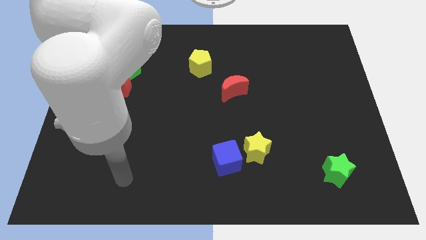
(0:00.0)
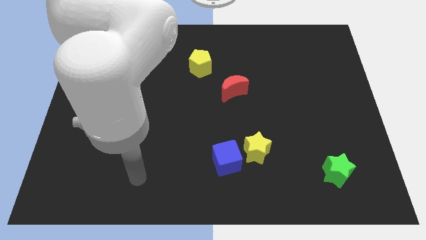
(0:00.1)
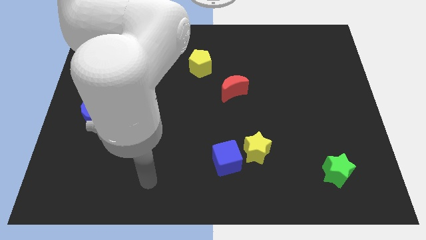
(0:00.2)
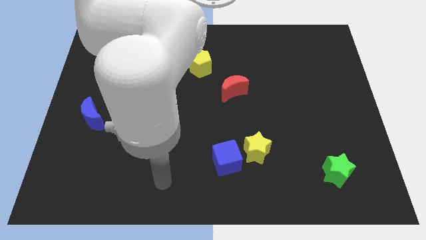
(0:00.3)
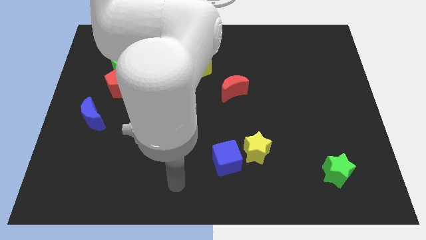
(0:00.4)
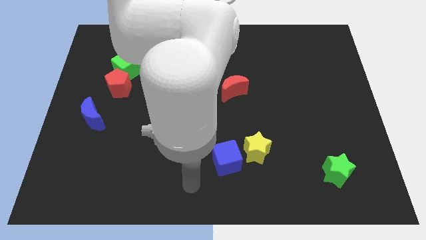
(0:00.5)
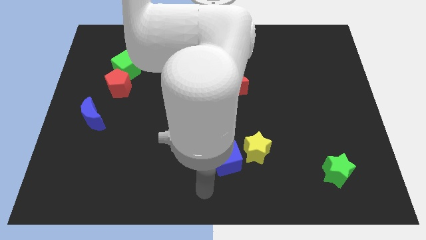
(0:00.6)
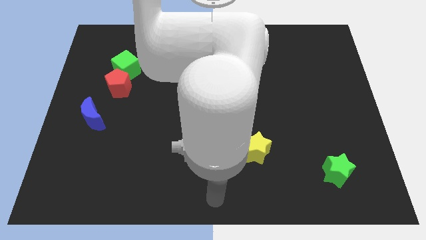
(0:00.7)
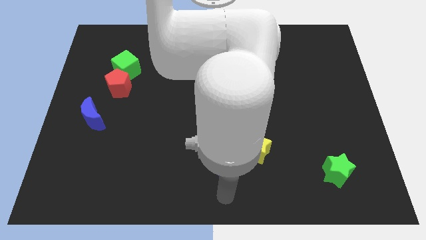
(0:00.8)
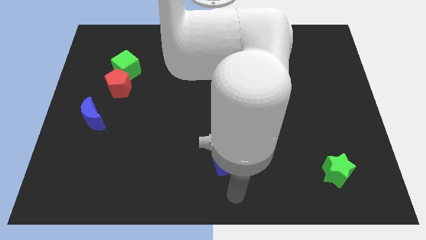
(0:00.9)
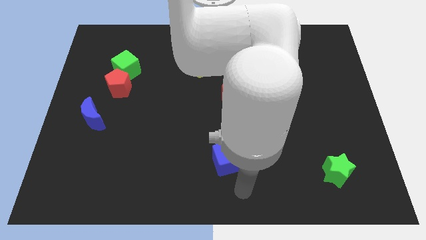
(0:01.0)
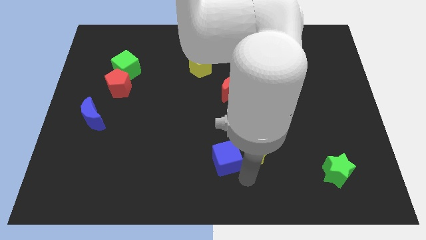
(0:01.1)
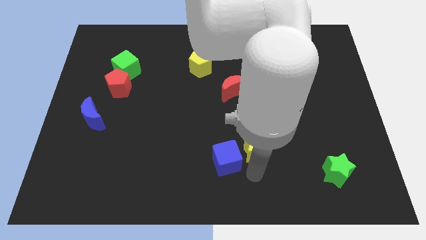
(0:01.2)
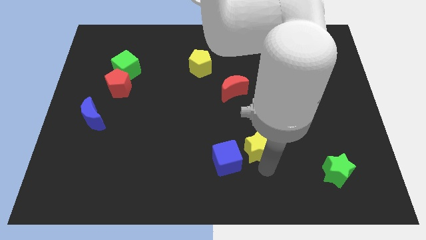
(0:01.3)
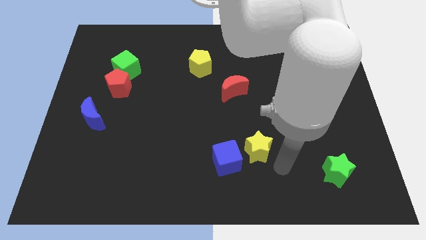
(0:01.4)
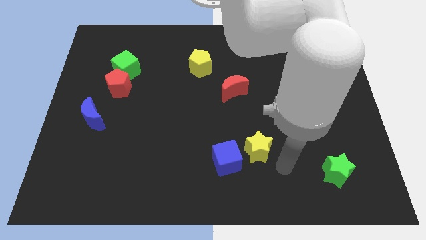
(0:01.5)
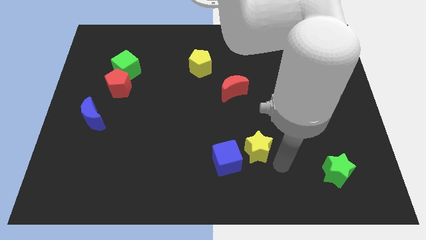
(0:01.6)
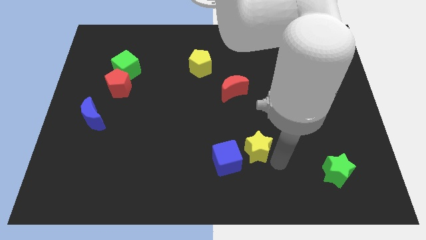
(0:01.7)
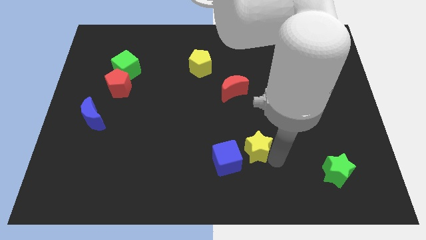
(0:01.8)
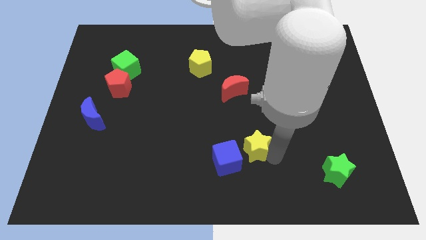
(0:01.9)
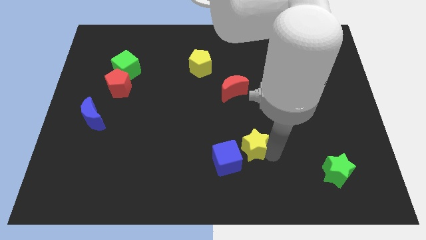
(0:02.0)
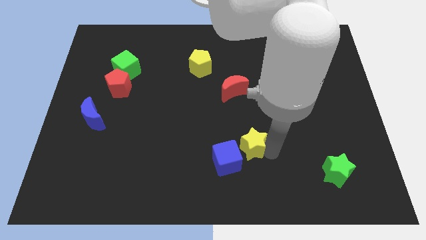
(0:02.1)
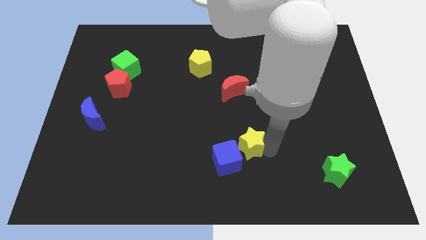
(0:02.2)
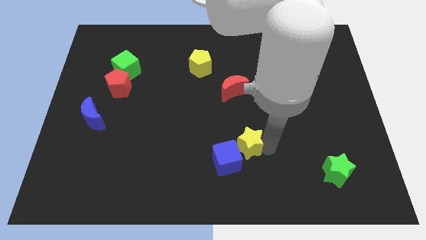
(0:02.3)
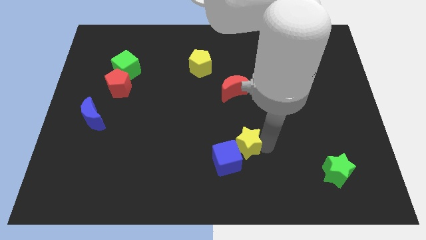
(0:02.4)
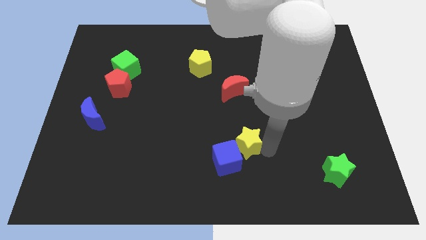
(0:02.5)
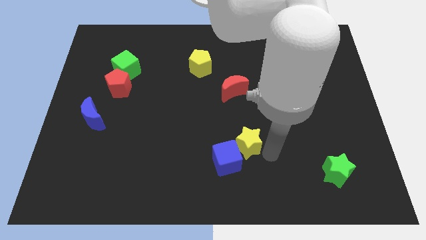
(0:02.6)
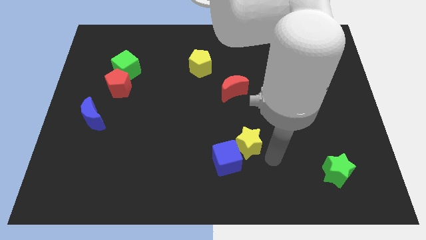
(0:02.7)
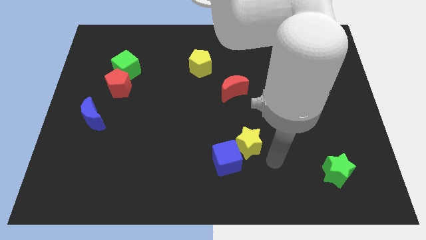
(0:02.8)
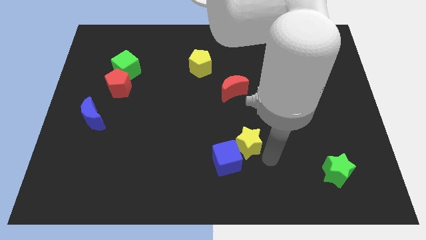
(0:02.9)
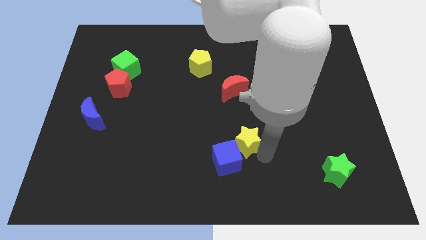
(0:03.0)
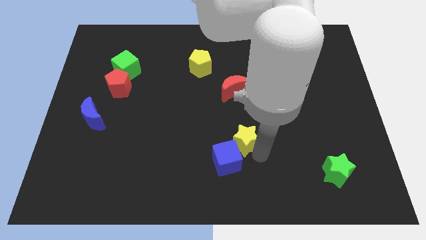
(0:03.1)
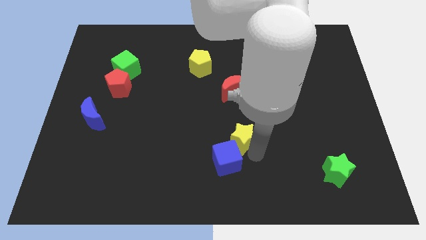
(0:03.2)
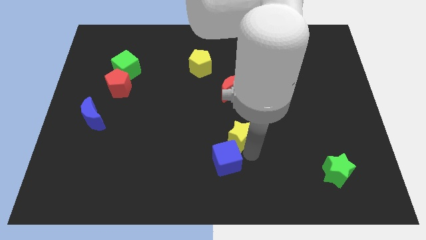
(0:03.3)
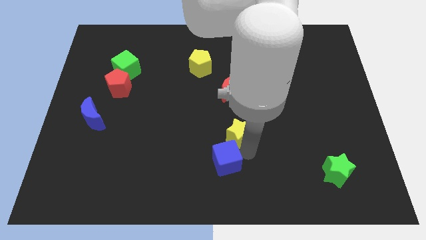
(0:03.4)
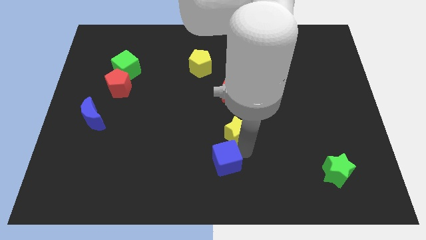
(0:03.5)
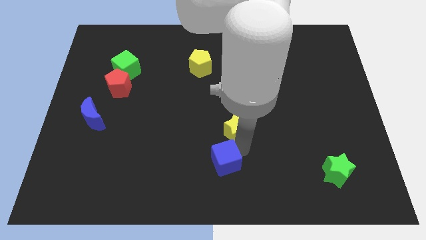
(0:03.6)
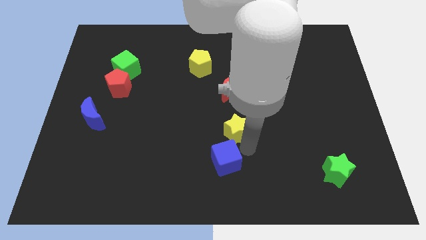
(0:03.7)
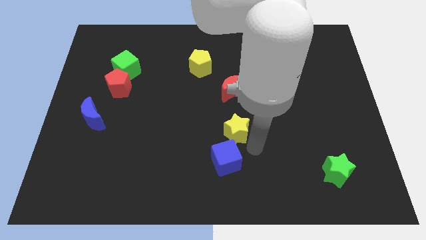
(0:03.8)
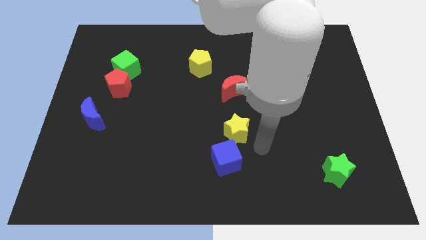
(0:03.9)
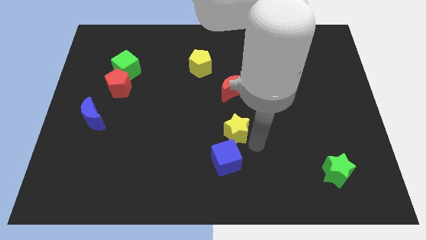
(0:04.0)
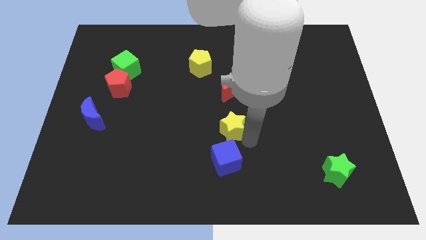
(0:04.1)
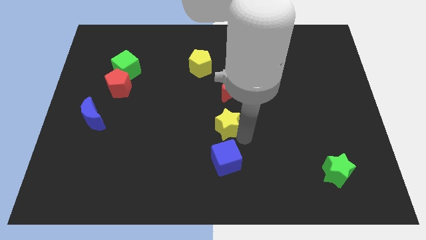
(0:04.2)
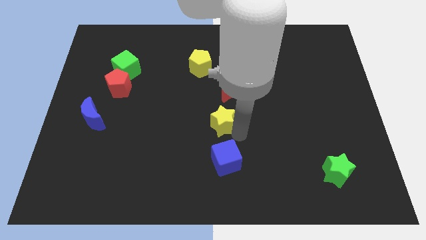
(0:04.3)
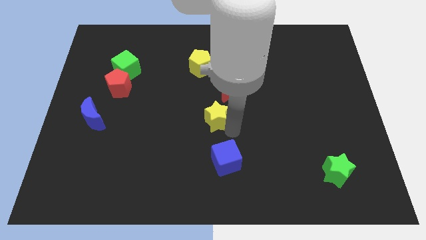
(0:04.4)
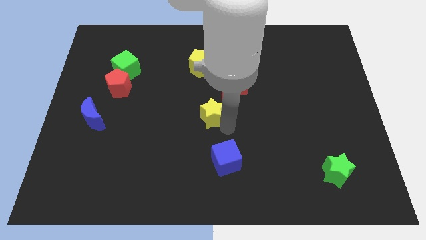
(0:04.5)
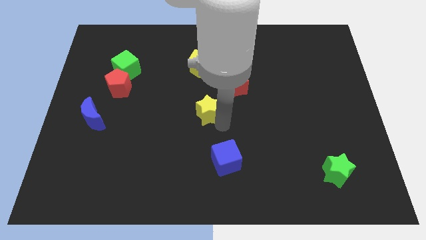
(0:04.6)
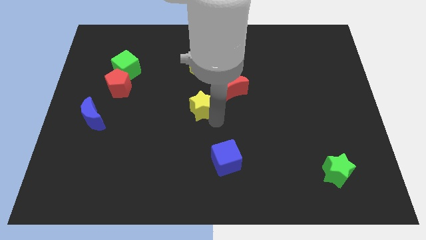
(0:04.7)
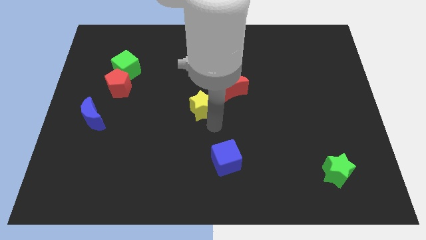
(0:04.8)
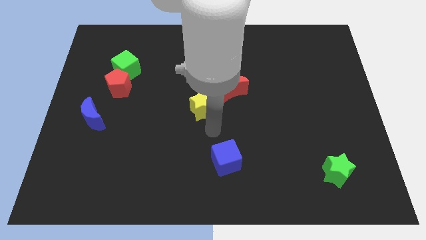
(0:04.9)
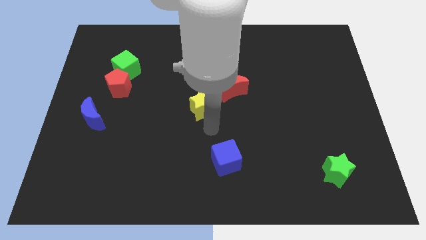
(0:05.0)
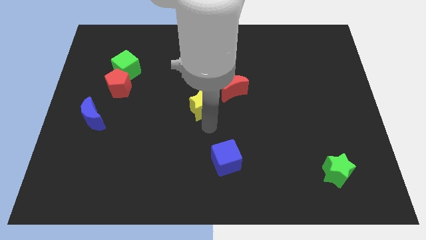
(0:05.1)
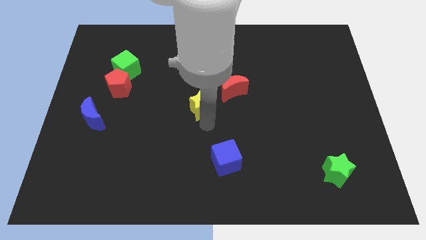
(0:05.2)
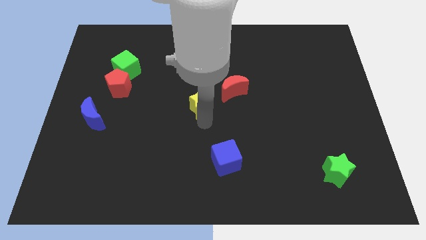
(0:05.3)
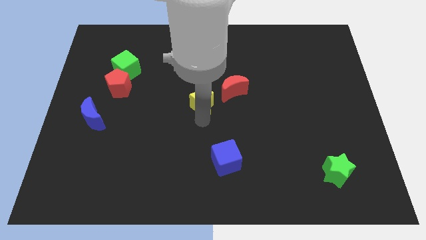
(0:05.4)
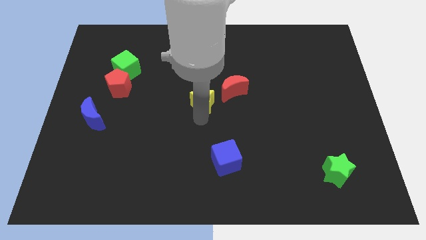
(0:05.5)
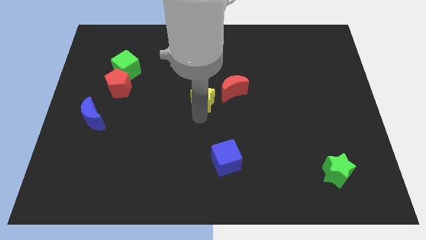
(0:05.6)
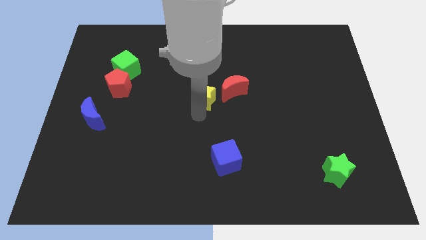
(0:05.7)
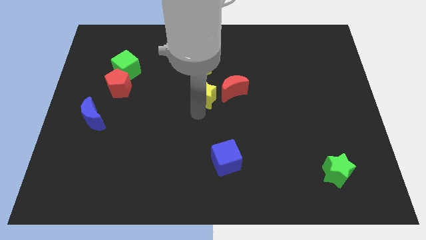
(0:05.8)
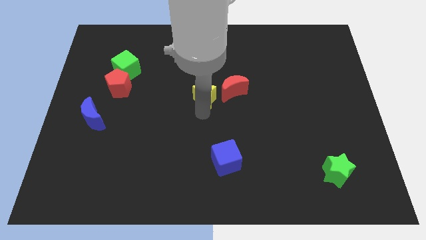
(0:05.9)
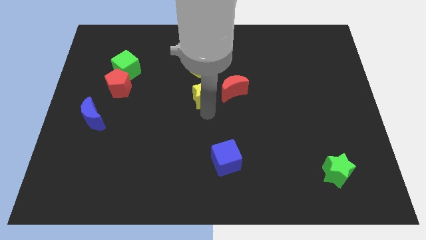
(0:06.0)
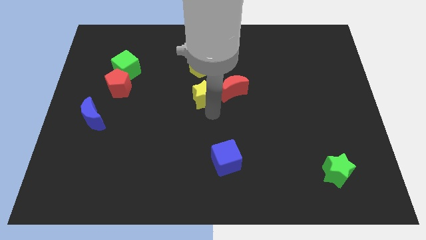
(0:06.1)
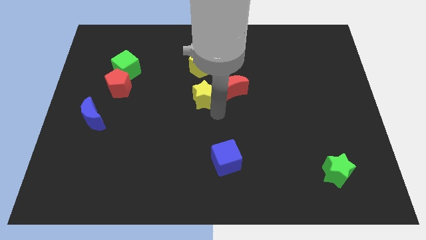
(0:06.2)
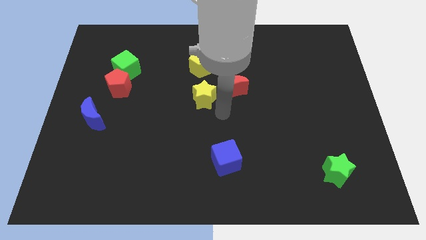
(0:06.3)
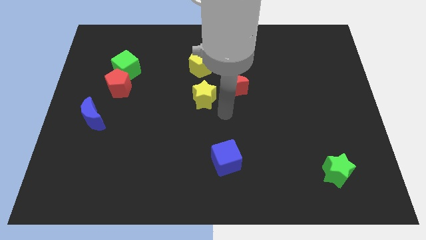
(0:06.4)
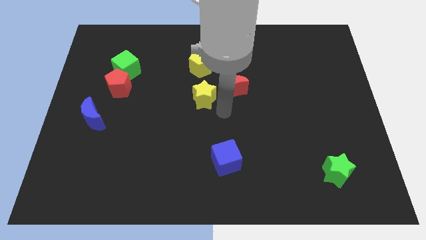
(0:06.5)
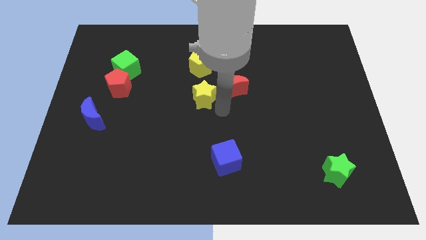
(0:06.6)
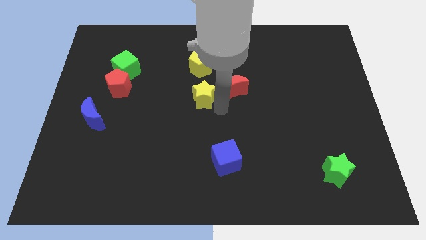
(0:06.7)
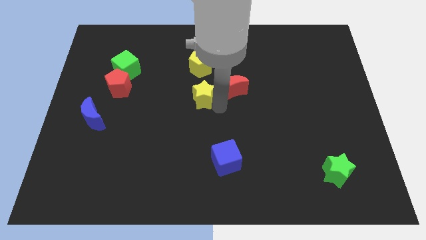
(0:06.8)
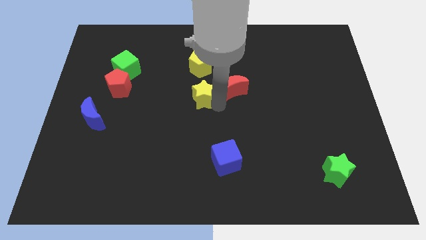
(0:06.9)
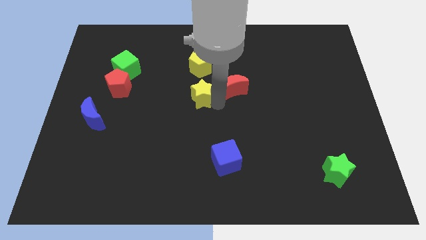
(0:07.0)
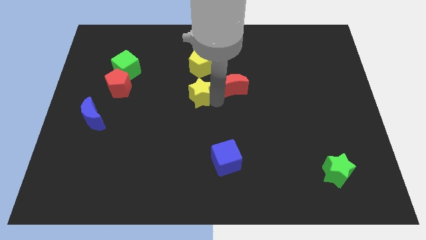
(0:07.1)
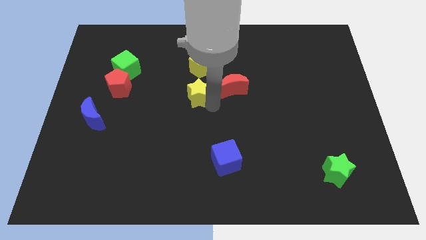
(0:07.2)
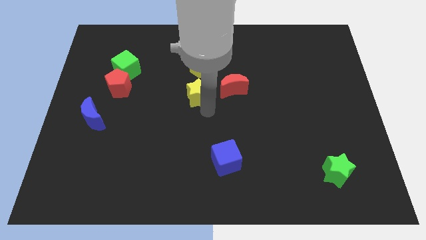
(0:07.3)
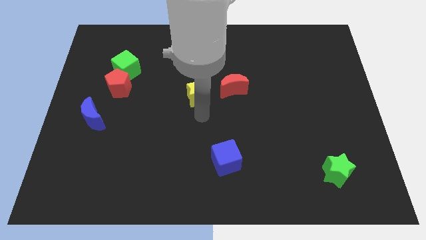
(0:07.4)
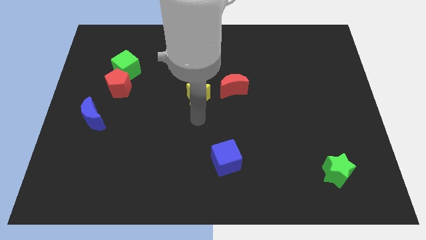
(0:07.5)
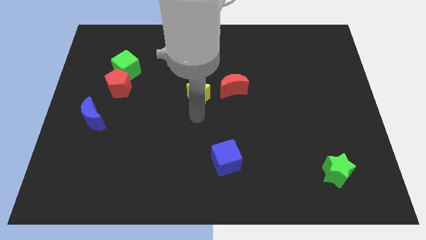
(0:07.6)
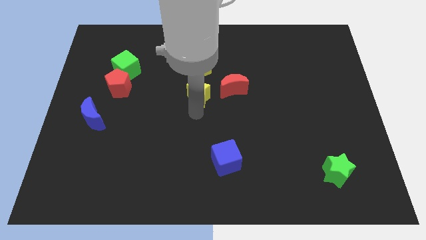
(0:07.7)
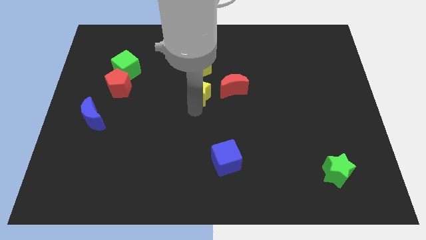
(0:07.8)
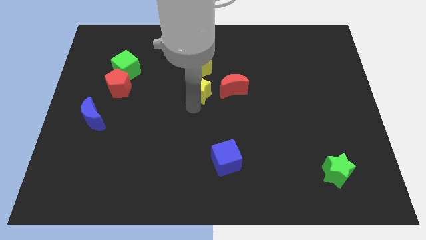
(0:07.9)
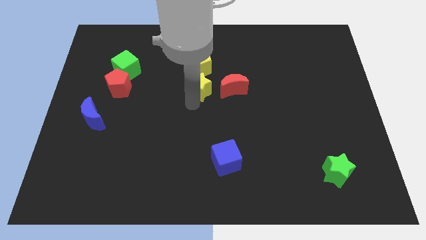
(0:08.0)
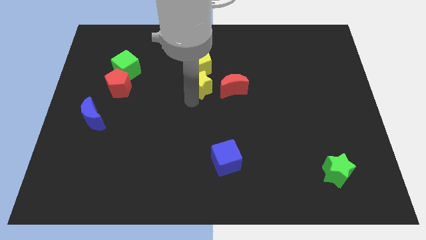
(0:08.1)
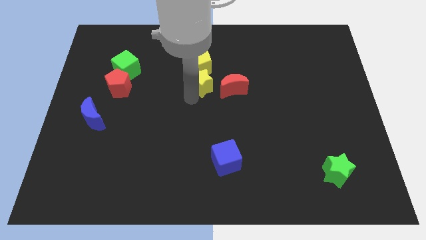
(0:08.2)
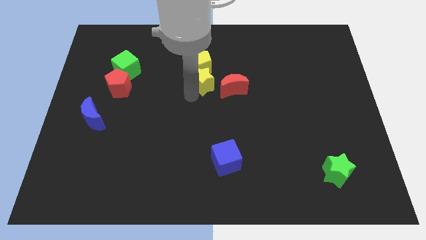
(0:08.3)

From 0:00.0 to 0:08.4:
put the yellow star next to the yellow pentagon
